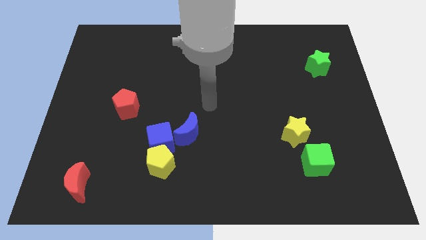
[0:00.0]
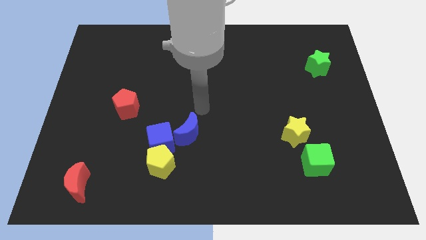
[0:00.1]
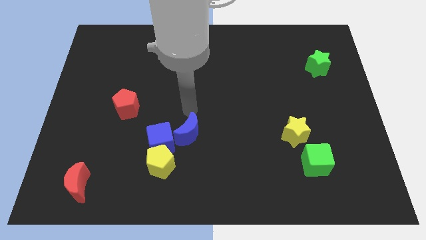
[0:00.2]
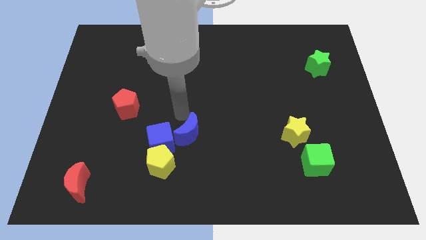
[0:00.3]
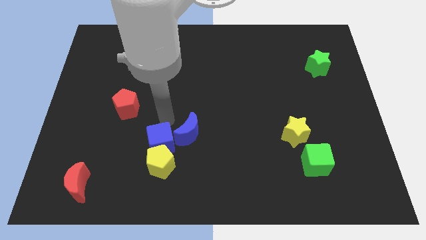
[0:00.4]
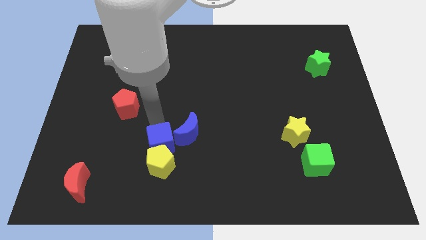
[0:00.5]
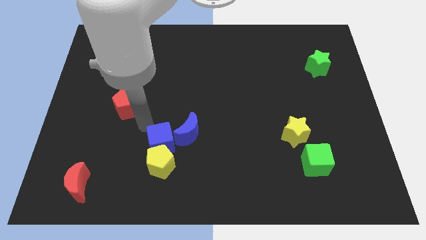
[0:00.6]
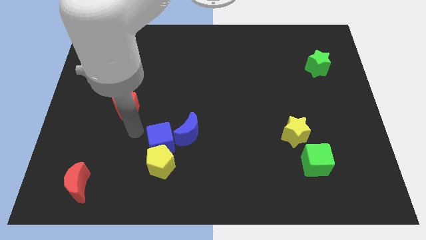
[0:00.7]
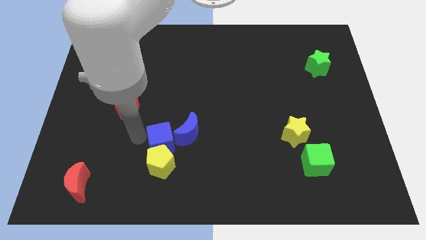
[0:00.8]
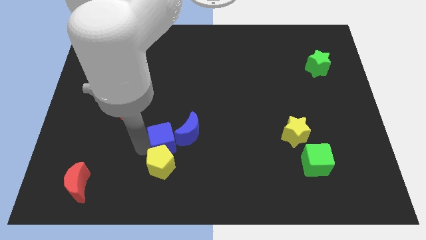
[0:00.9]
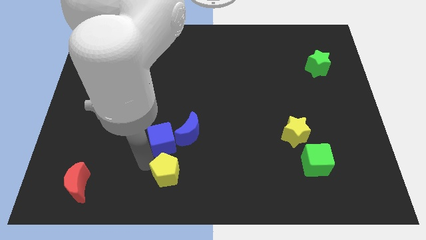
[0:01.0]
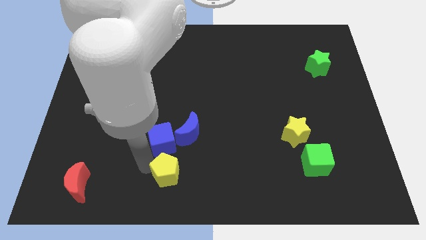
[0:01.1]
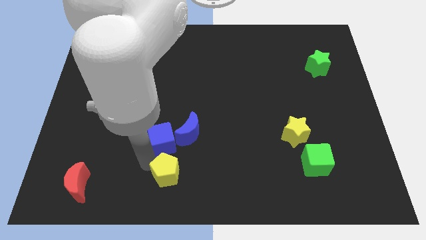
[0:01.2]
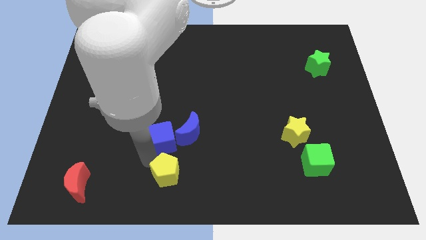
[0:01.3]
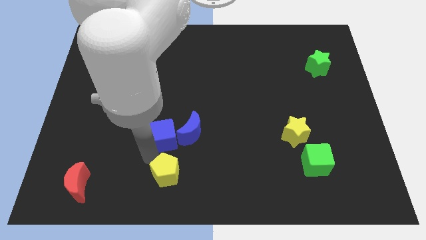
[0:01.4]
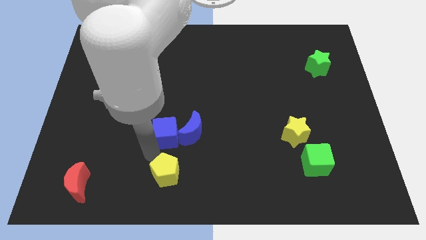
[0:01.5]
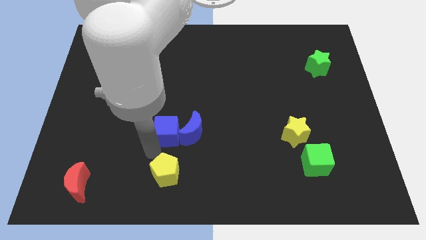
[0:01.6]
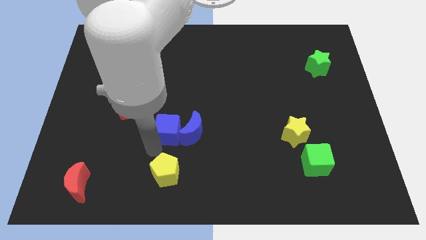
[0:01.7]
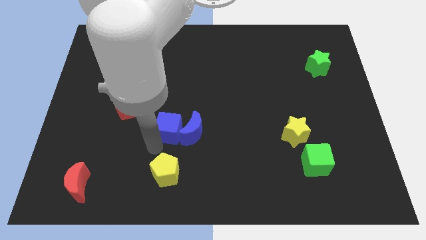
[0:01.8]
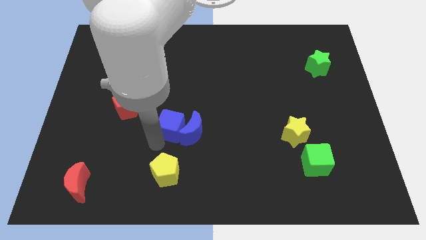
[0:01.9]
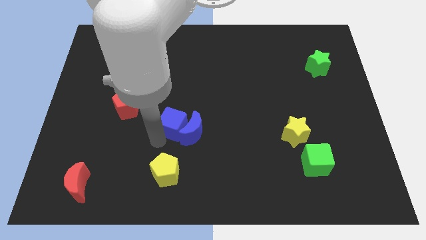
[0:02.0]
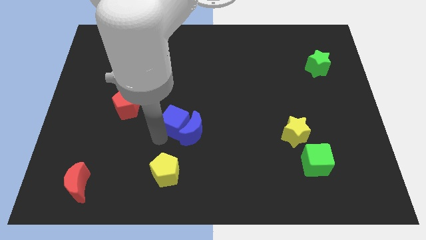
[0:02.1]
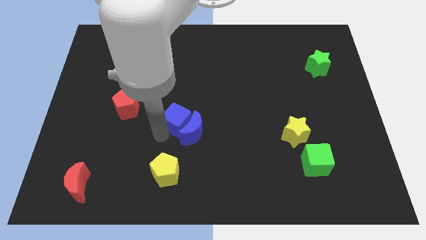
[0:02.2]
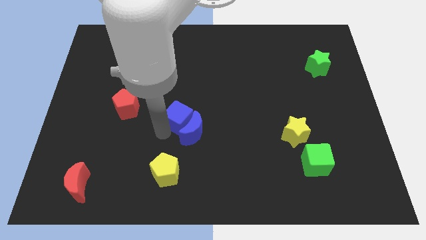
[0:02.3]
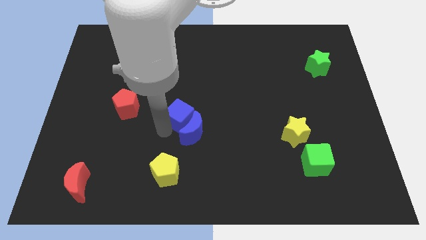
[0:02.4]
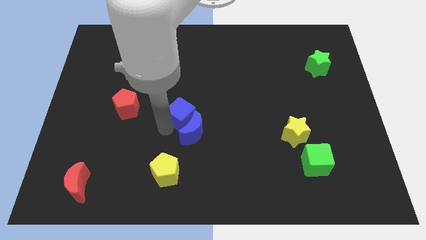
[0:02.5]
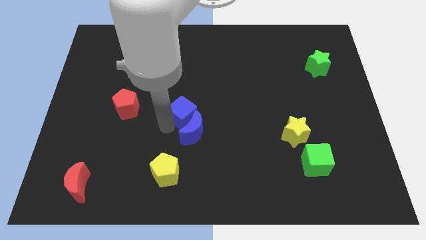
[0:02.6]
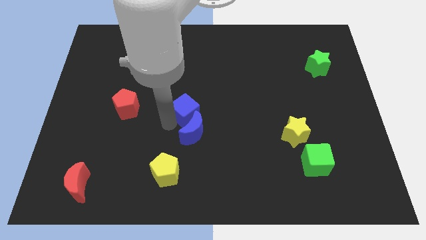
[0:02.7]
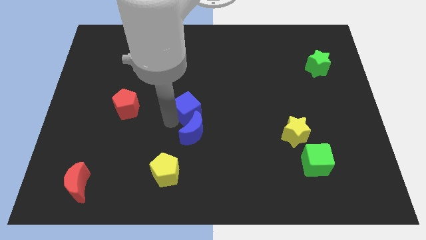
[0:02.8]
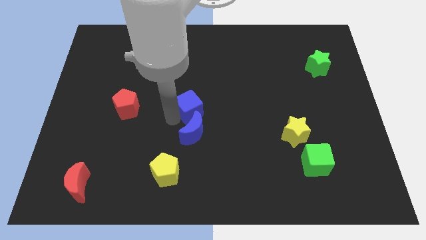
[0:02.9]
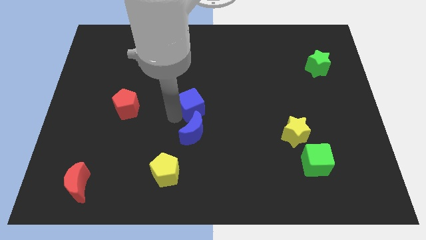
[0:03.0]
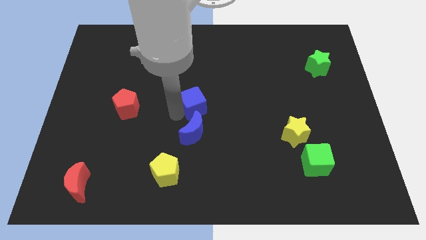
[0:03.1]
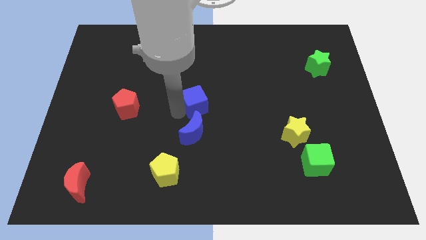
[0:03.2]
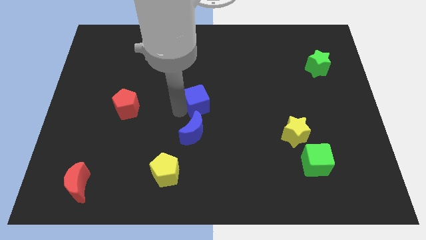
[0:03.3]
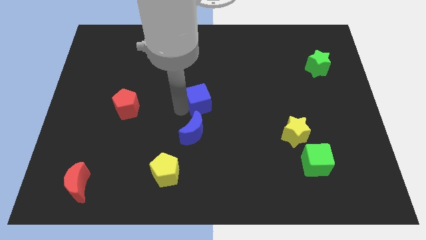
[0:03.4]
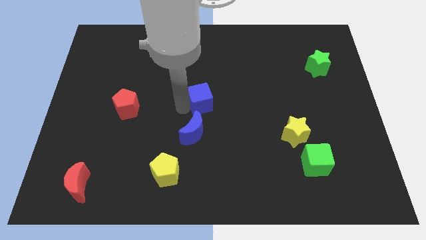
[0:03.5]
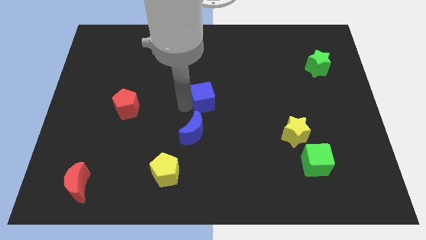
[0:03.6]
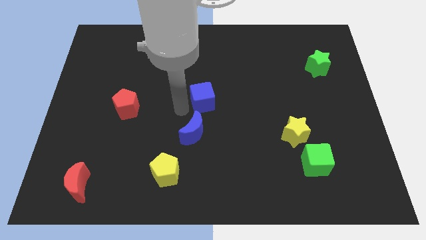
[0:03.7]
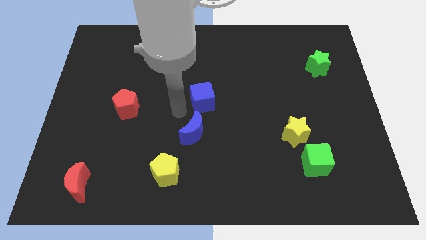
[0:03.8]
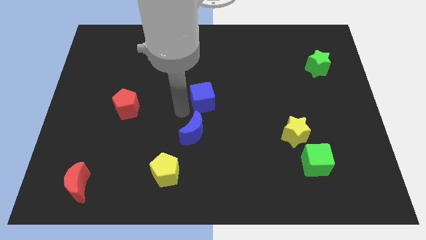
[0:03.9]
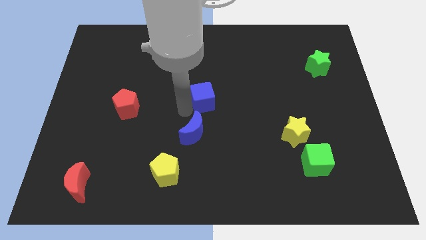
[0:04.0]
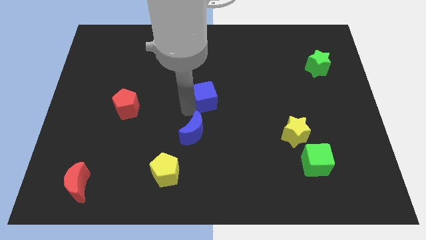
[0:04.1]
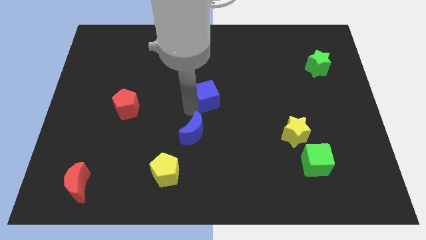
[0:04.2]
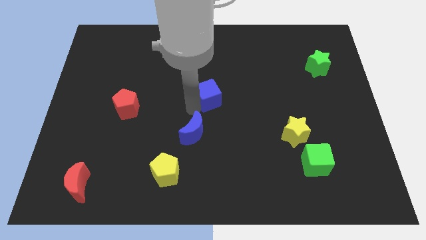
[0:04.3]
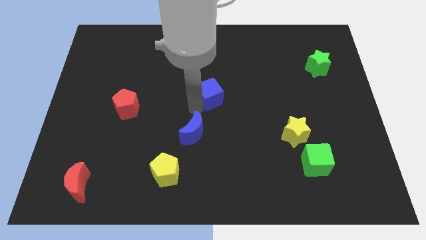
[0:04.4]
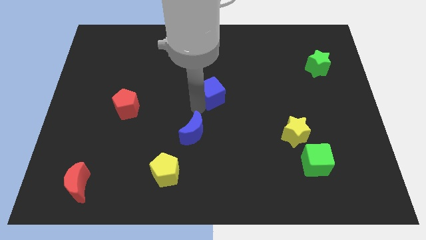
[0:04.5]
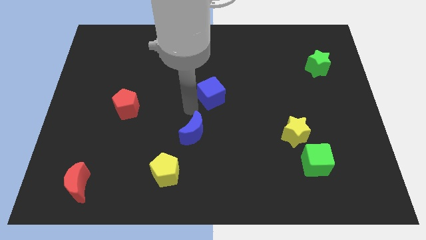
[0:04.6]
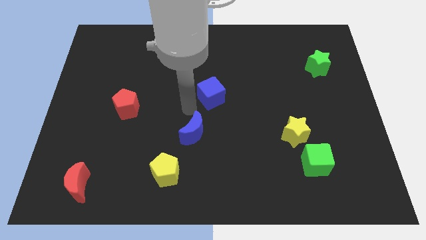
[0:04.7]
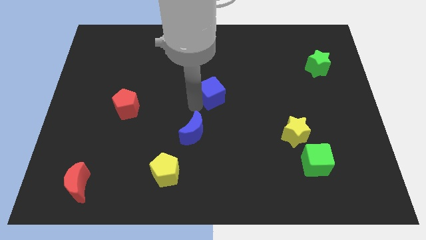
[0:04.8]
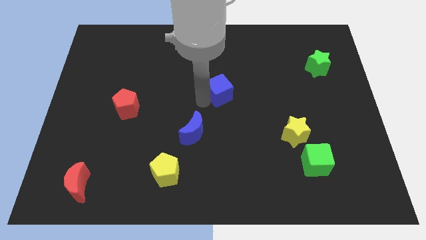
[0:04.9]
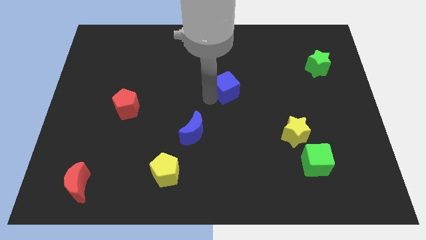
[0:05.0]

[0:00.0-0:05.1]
push the blue cube up and right

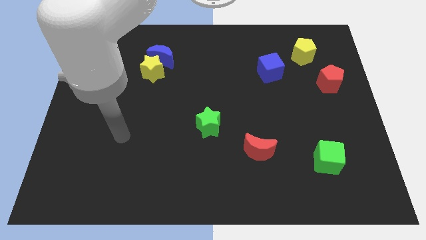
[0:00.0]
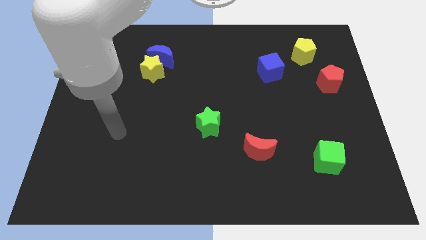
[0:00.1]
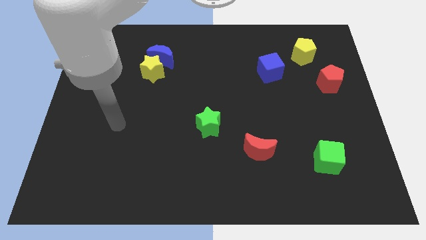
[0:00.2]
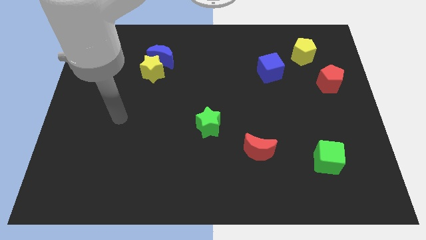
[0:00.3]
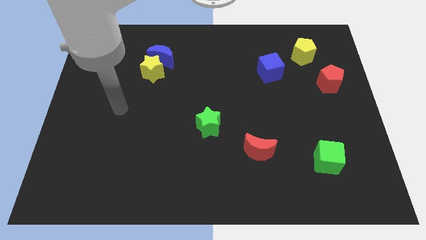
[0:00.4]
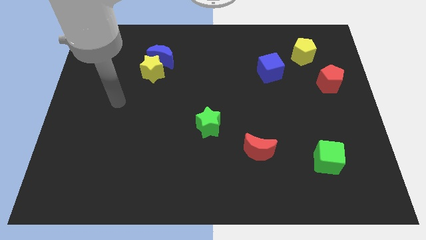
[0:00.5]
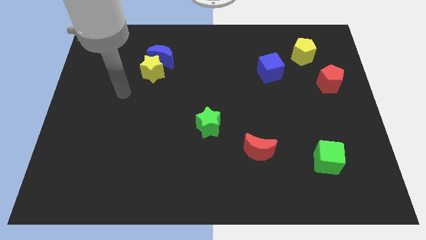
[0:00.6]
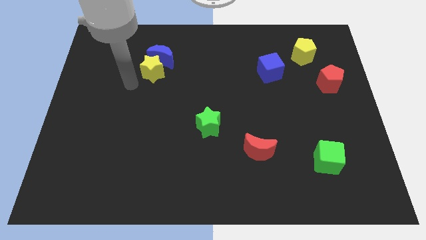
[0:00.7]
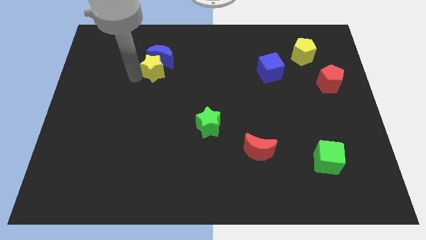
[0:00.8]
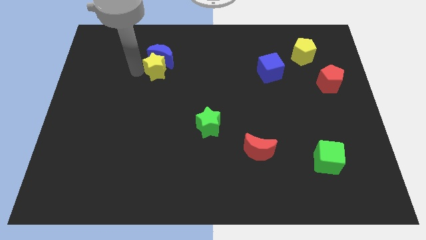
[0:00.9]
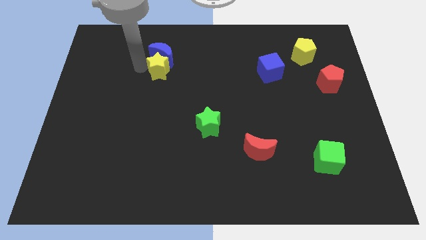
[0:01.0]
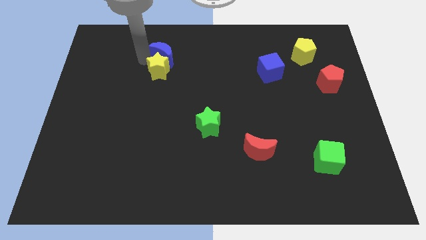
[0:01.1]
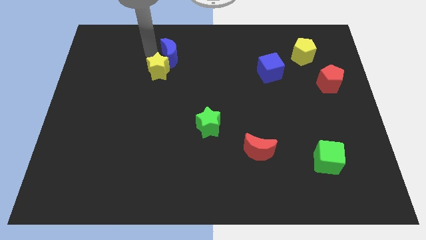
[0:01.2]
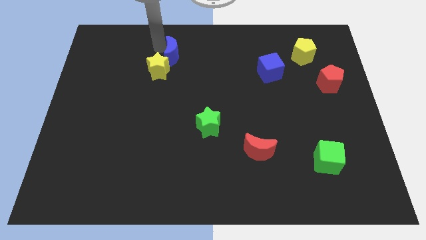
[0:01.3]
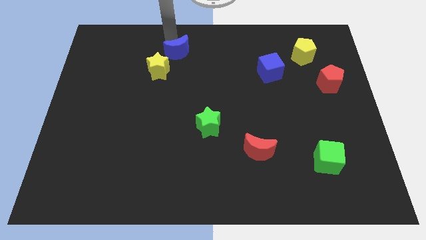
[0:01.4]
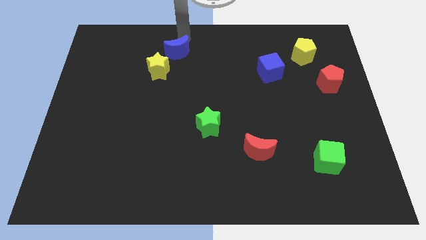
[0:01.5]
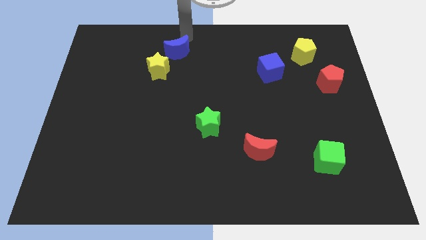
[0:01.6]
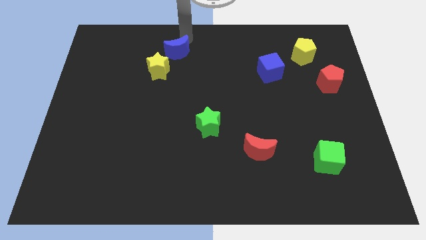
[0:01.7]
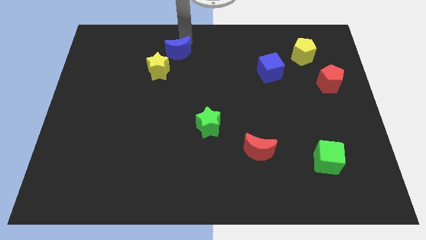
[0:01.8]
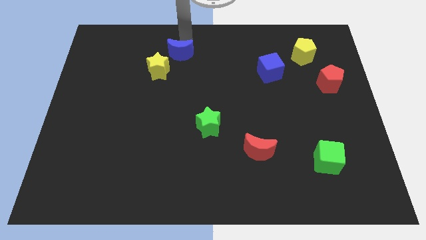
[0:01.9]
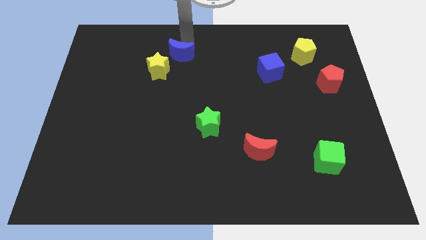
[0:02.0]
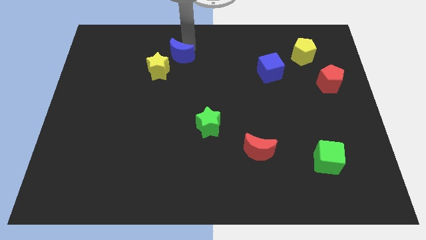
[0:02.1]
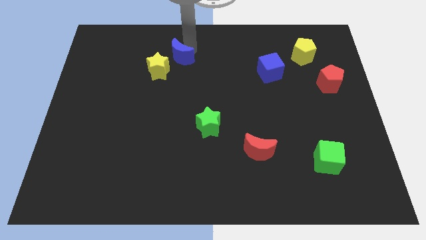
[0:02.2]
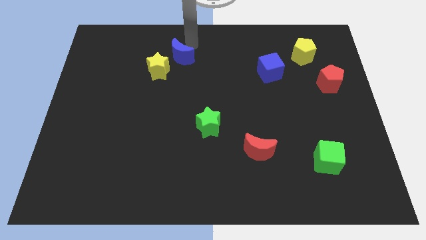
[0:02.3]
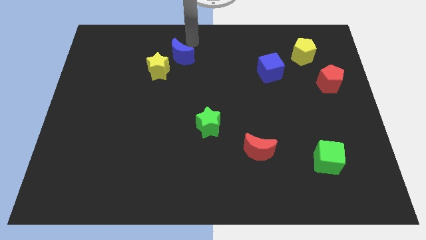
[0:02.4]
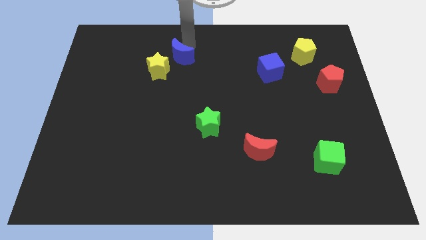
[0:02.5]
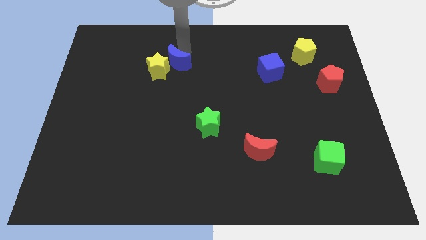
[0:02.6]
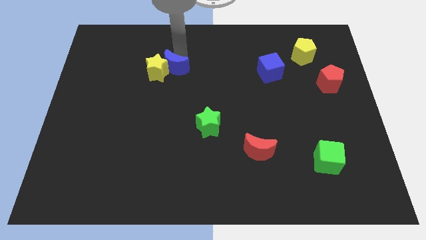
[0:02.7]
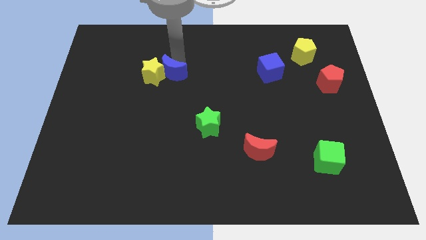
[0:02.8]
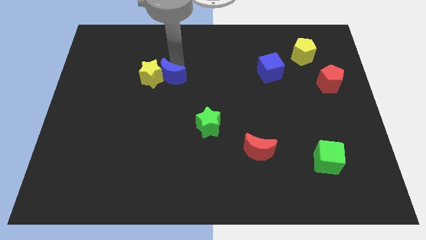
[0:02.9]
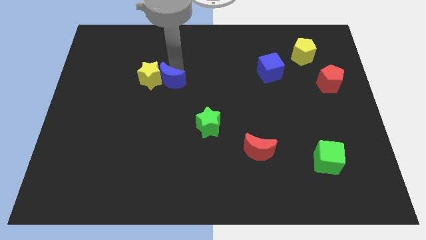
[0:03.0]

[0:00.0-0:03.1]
slide the blue moon a little down

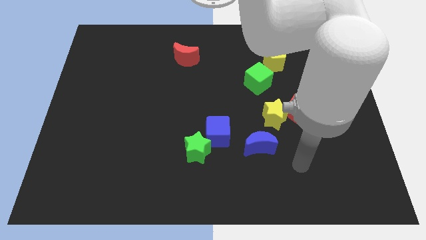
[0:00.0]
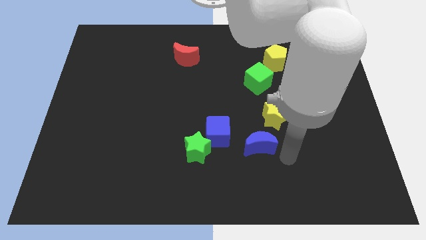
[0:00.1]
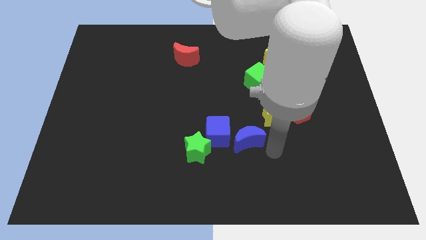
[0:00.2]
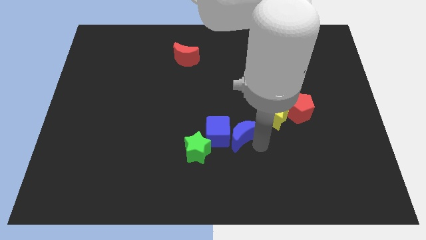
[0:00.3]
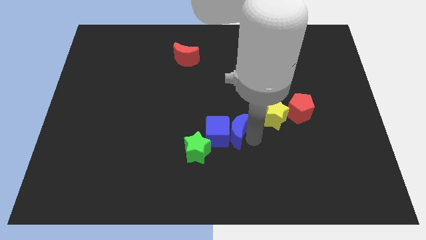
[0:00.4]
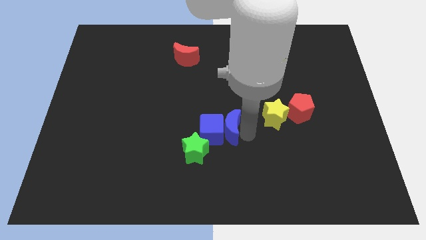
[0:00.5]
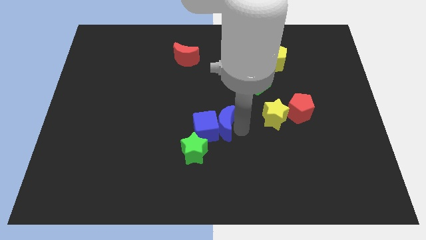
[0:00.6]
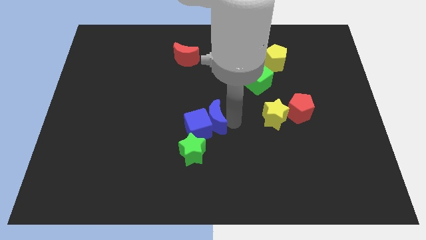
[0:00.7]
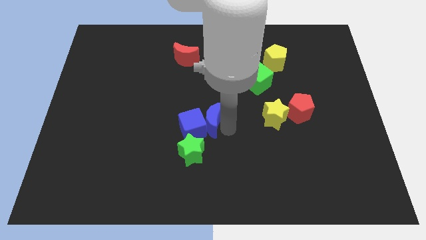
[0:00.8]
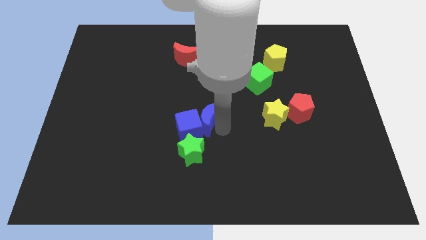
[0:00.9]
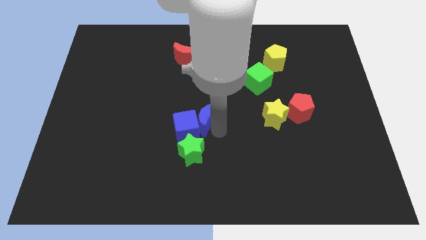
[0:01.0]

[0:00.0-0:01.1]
move the blue cube somewhat left
